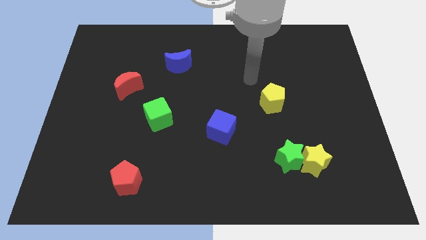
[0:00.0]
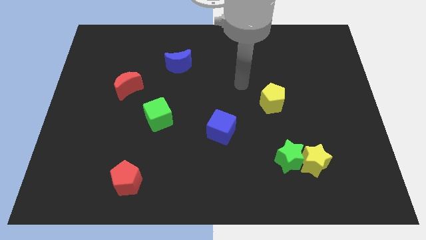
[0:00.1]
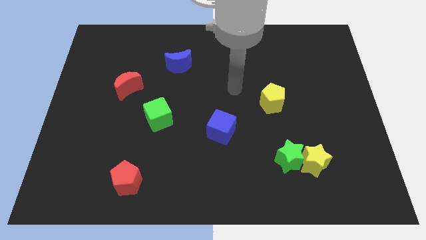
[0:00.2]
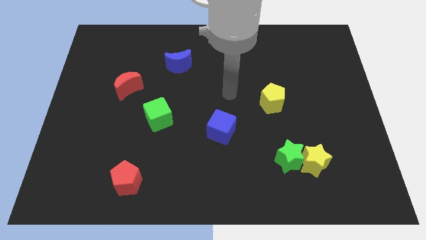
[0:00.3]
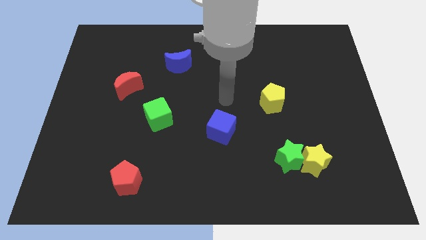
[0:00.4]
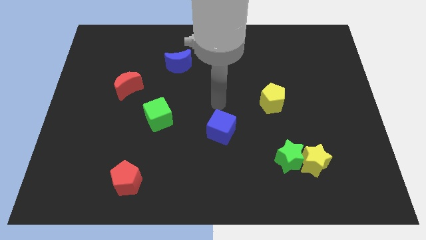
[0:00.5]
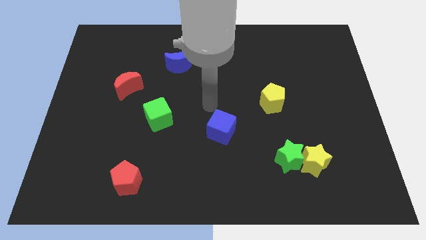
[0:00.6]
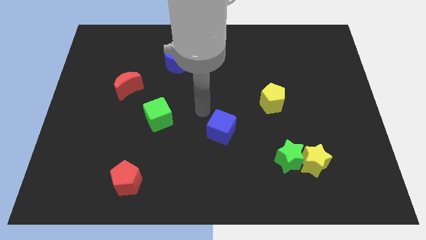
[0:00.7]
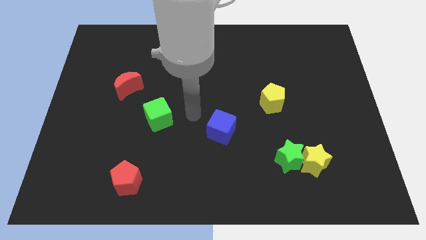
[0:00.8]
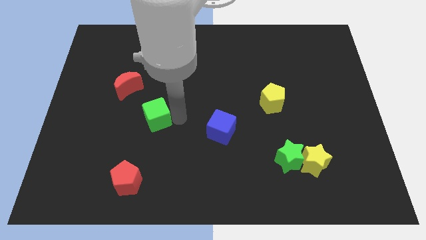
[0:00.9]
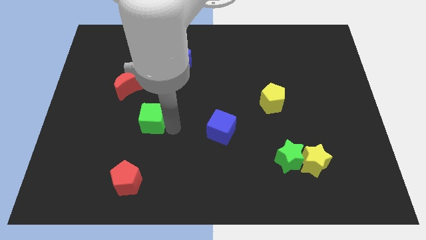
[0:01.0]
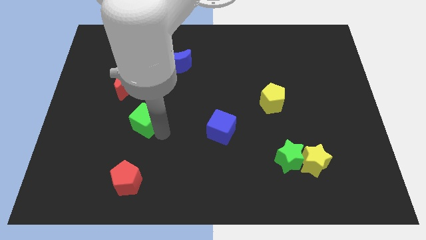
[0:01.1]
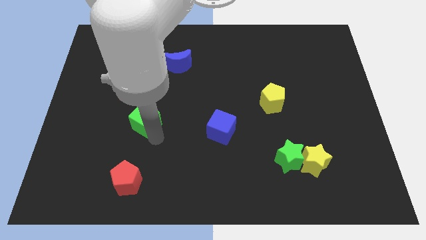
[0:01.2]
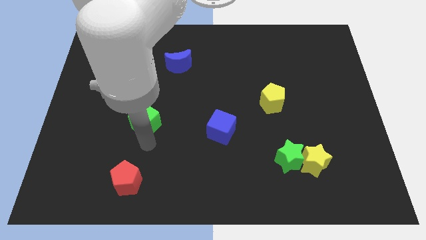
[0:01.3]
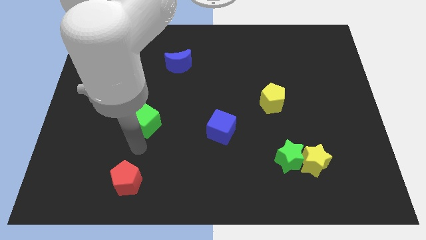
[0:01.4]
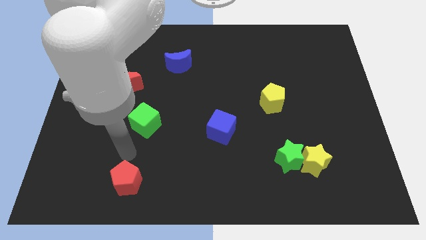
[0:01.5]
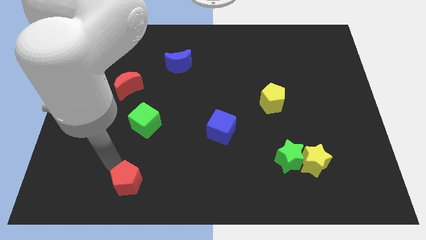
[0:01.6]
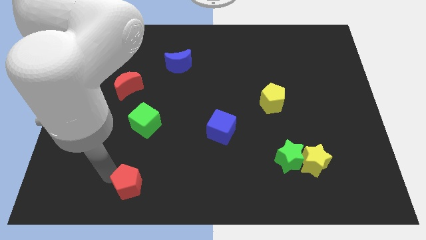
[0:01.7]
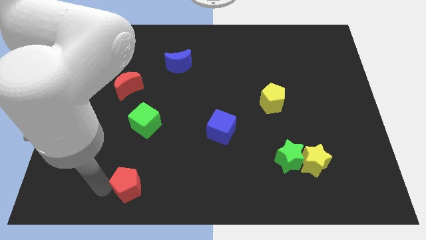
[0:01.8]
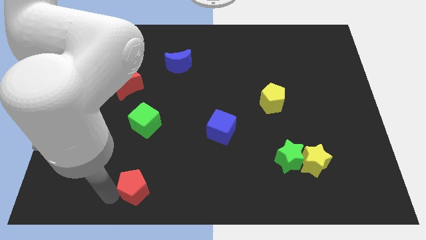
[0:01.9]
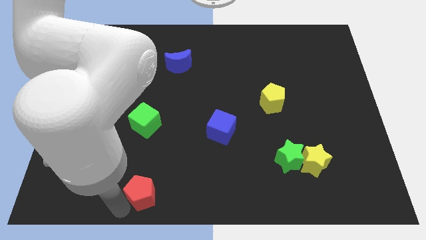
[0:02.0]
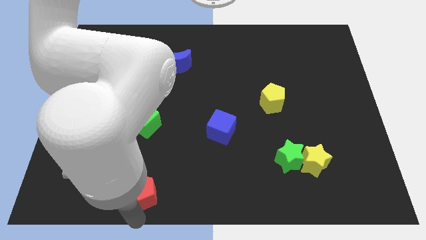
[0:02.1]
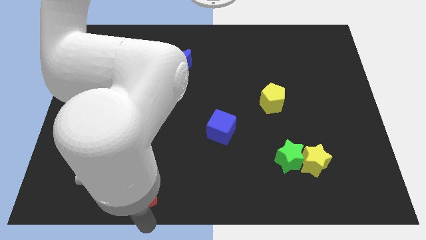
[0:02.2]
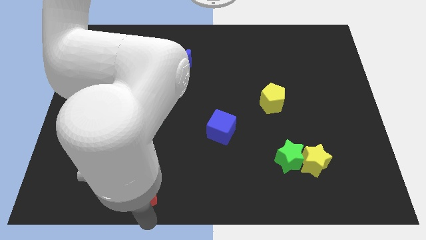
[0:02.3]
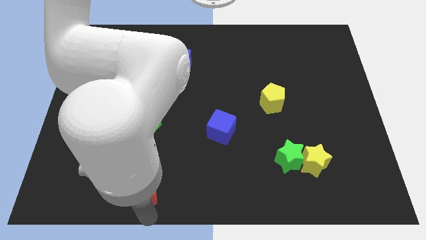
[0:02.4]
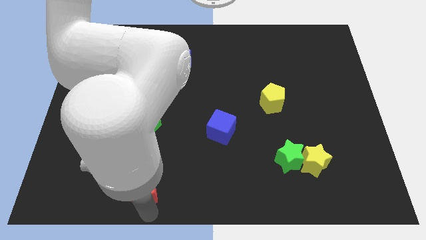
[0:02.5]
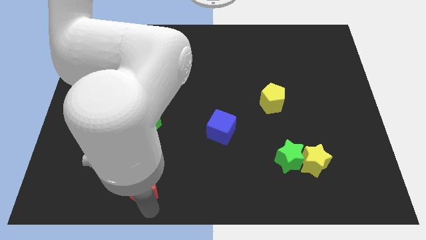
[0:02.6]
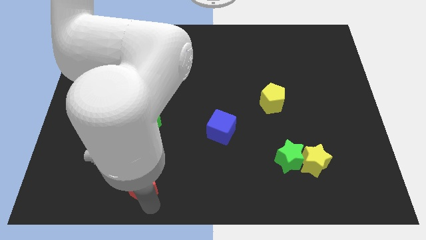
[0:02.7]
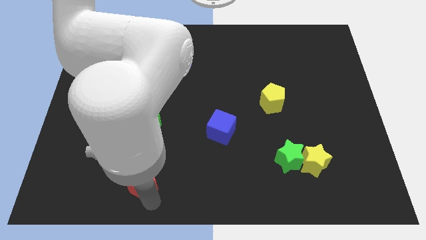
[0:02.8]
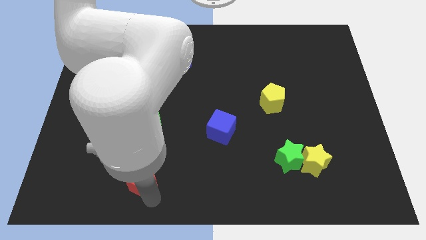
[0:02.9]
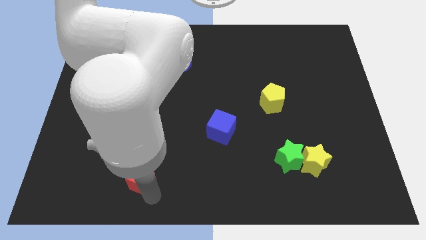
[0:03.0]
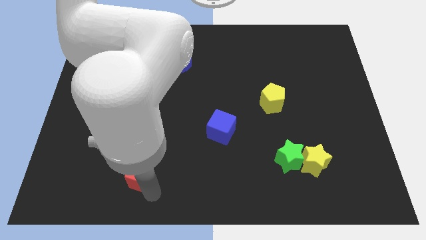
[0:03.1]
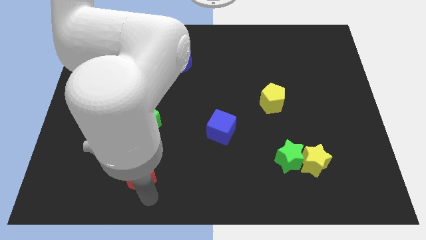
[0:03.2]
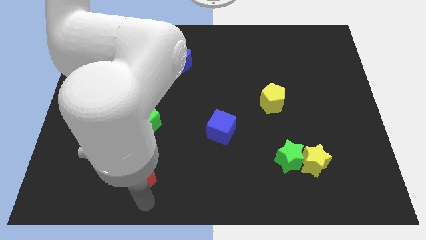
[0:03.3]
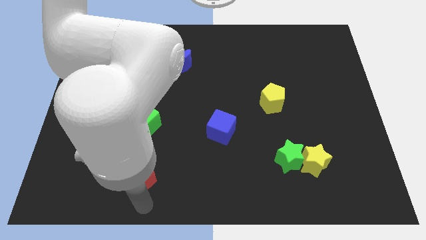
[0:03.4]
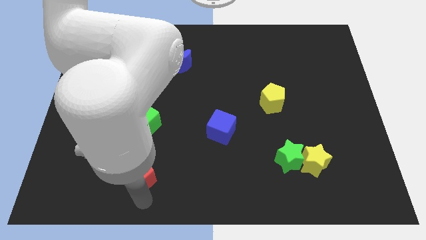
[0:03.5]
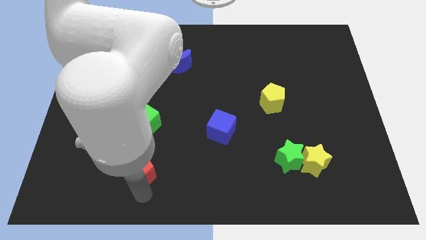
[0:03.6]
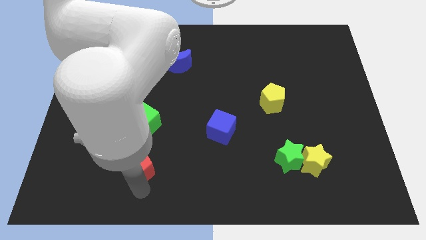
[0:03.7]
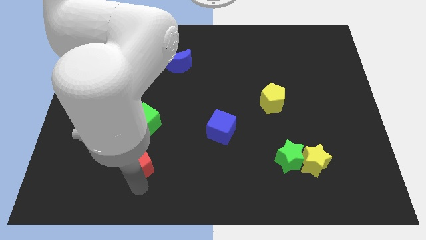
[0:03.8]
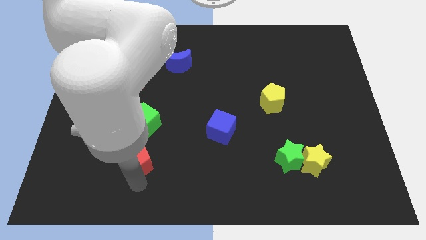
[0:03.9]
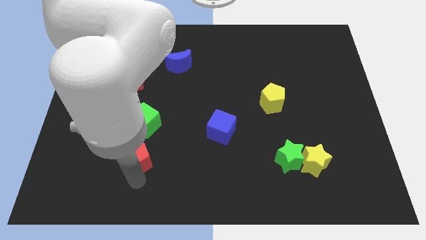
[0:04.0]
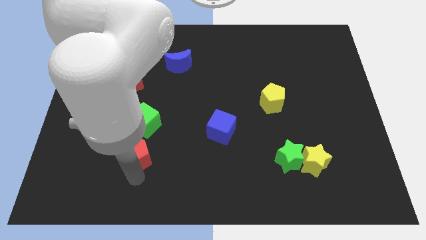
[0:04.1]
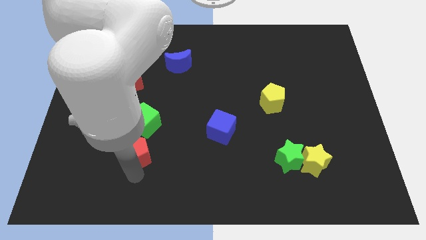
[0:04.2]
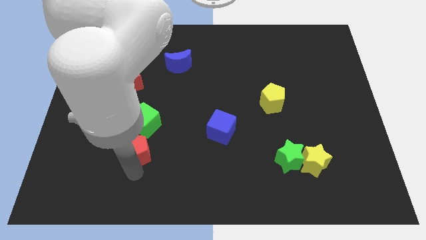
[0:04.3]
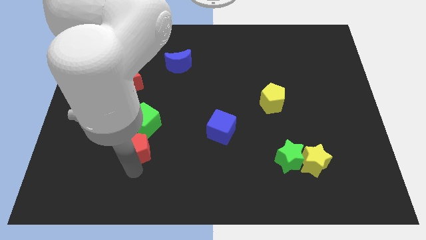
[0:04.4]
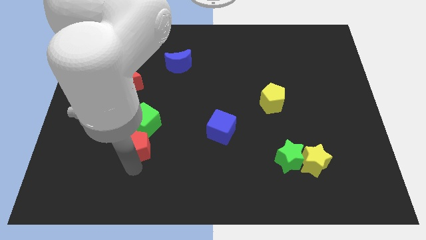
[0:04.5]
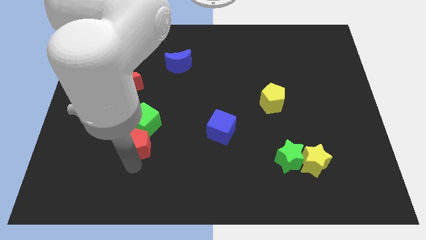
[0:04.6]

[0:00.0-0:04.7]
put the red pentagon towards the green cube

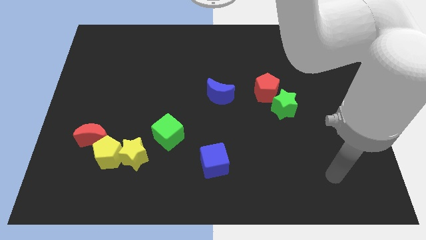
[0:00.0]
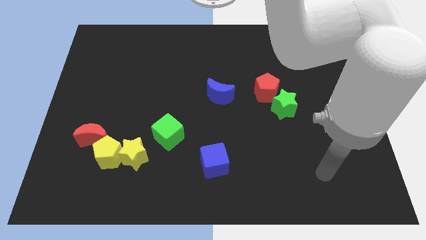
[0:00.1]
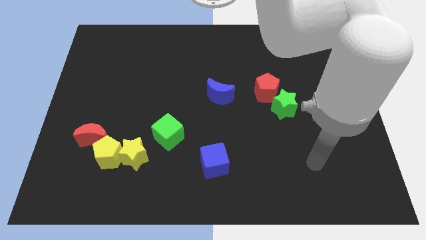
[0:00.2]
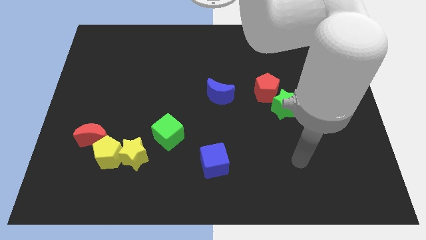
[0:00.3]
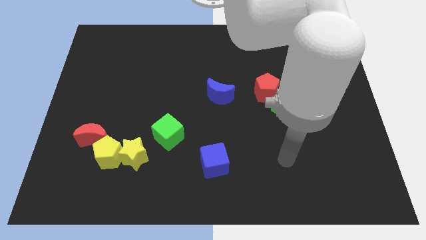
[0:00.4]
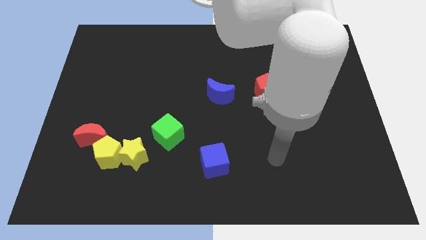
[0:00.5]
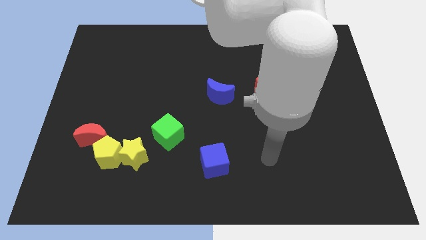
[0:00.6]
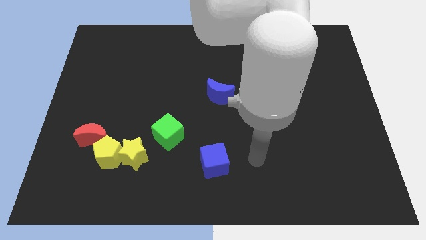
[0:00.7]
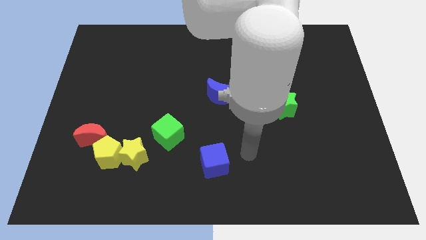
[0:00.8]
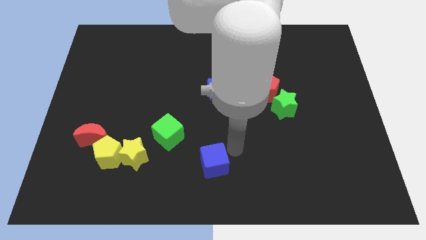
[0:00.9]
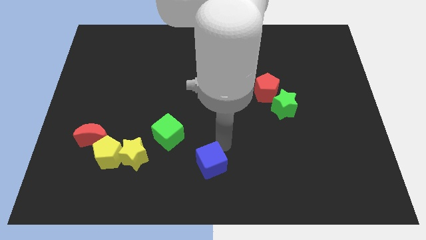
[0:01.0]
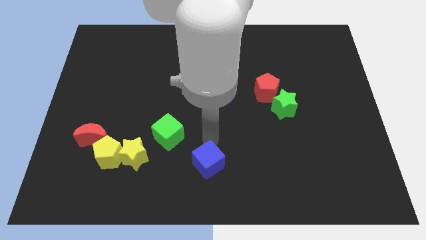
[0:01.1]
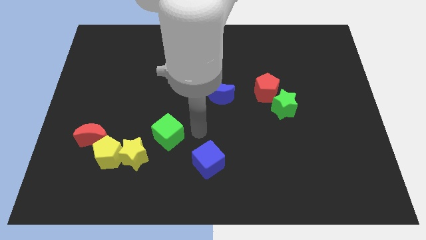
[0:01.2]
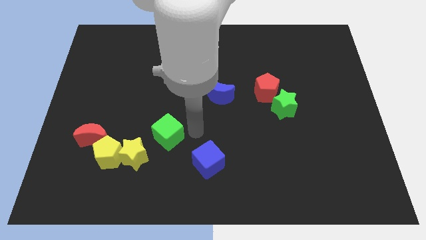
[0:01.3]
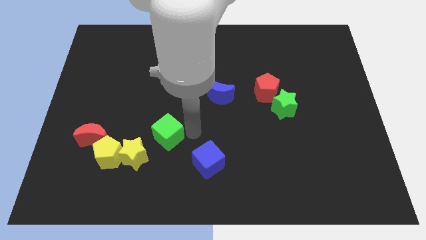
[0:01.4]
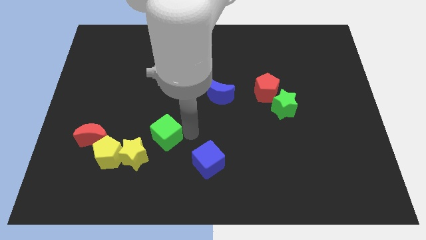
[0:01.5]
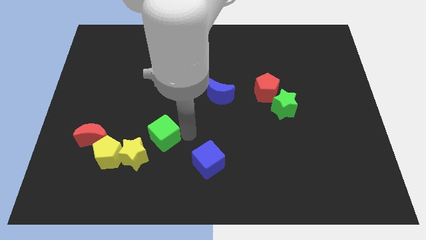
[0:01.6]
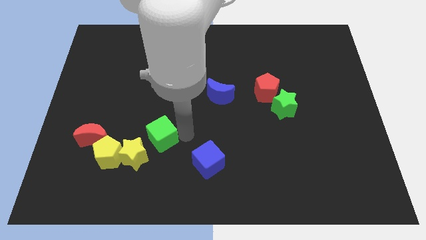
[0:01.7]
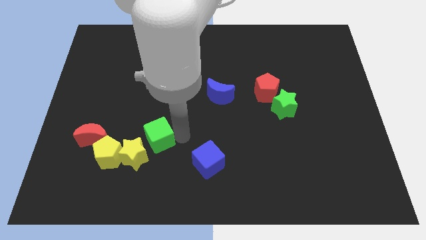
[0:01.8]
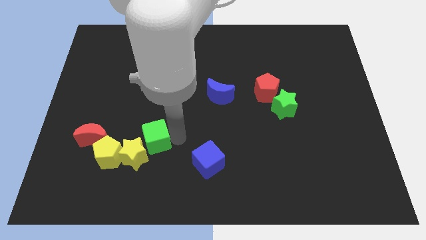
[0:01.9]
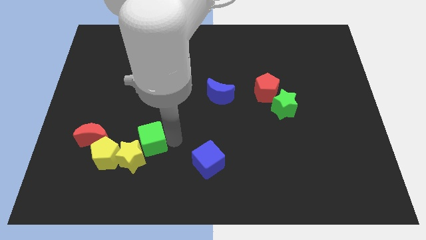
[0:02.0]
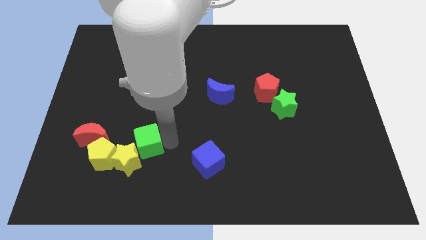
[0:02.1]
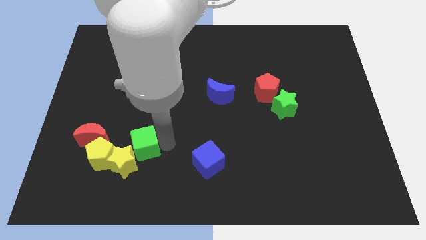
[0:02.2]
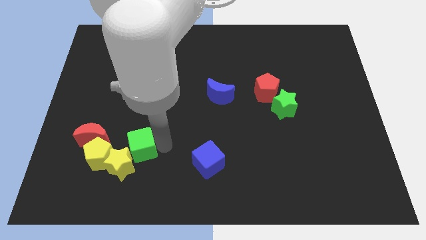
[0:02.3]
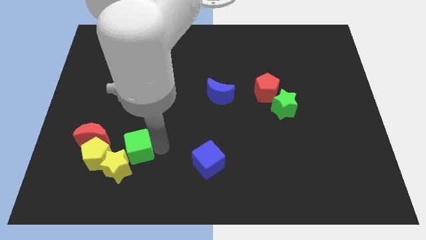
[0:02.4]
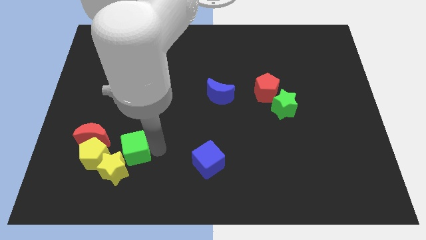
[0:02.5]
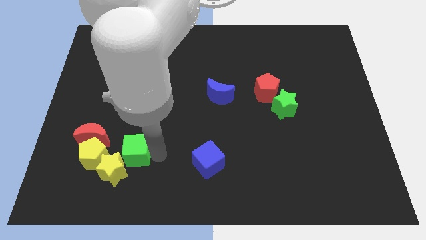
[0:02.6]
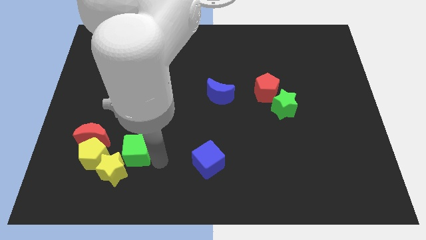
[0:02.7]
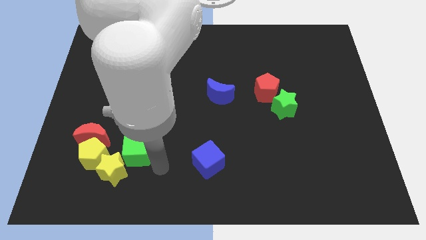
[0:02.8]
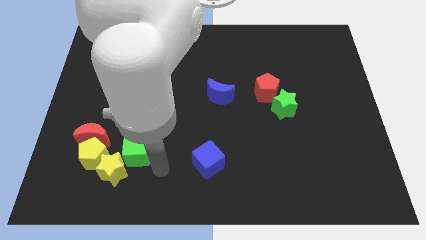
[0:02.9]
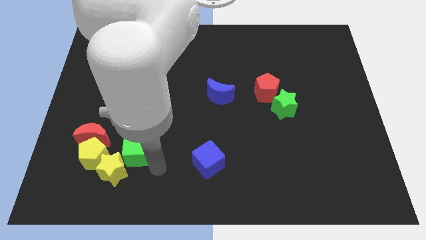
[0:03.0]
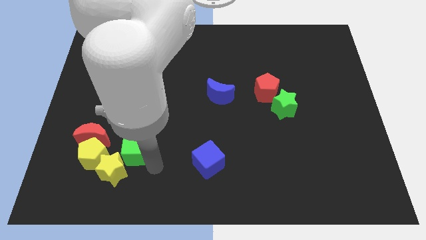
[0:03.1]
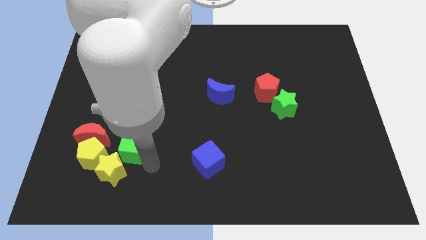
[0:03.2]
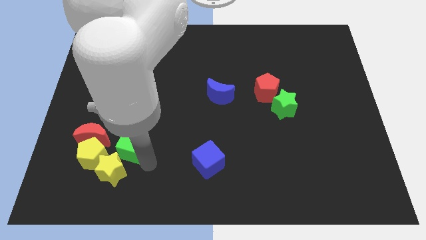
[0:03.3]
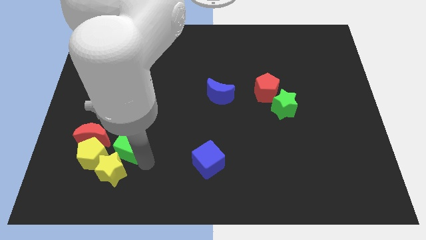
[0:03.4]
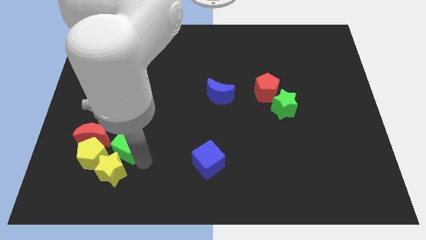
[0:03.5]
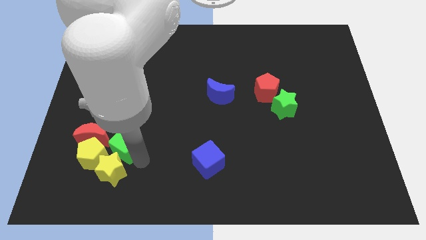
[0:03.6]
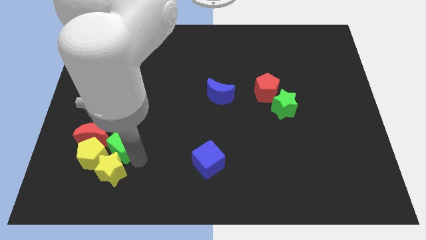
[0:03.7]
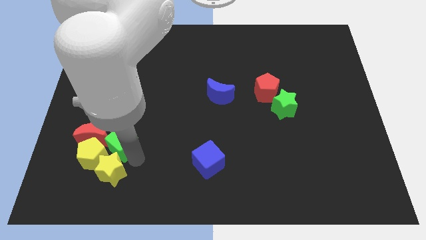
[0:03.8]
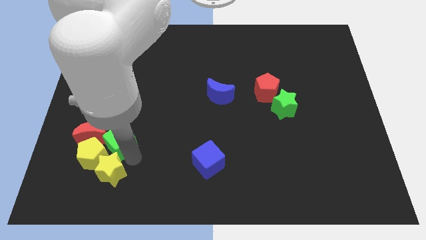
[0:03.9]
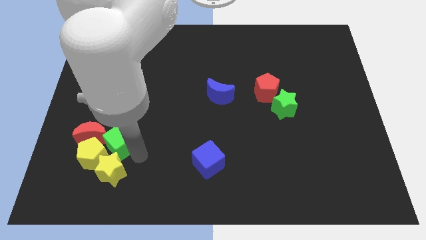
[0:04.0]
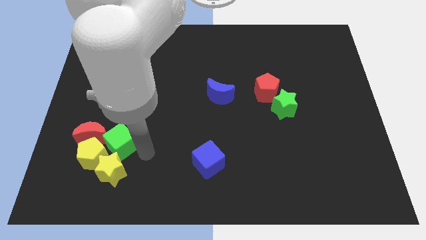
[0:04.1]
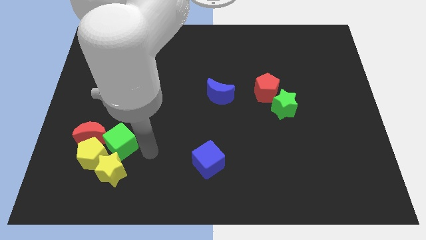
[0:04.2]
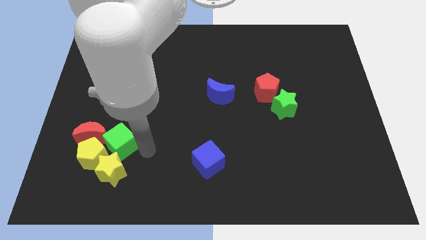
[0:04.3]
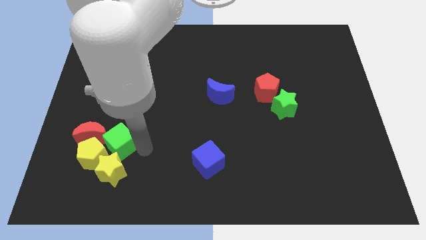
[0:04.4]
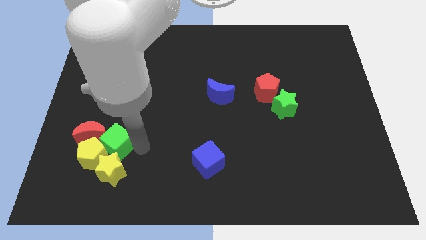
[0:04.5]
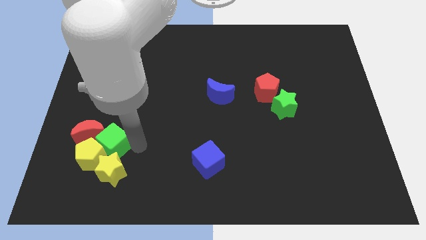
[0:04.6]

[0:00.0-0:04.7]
push the green cube close to the red moon
